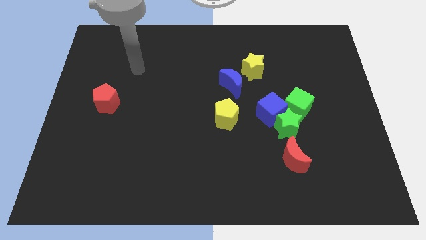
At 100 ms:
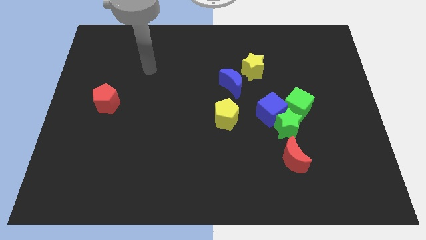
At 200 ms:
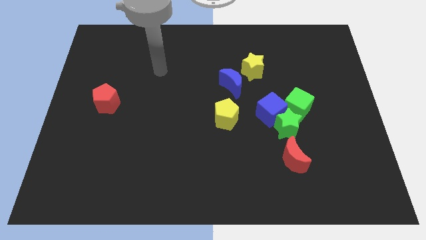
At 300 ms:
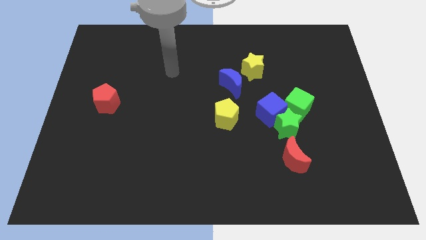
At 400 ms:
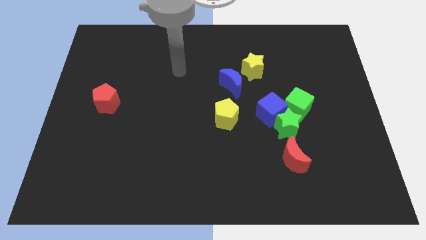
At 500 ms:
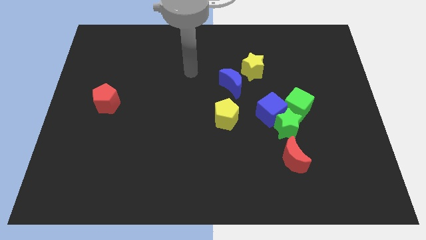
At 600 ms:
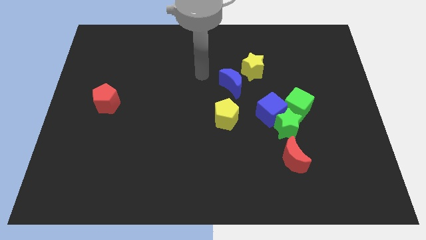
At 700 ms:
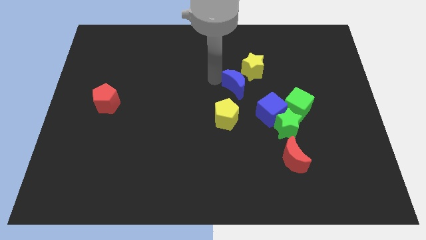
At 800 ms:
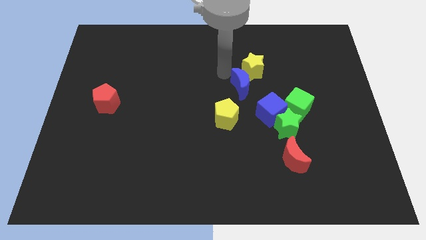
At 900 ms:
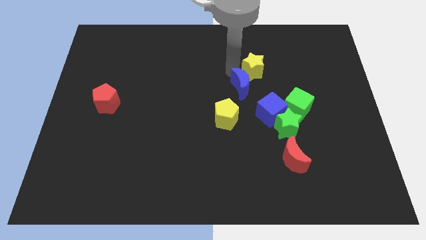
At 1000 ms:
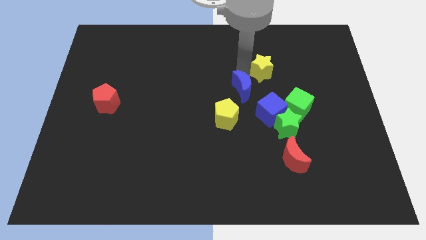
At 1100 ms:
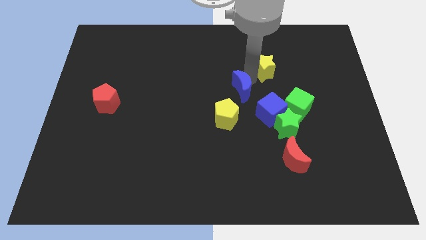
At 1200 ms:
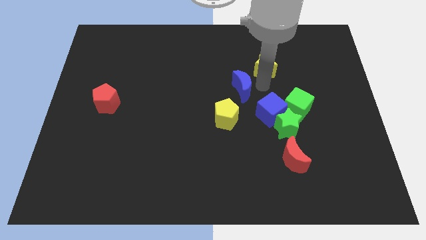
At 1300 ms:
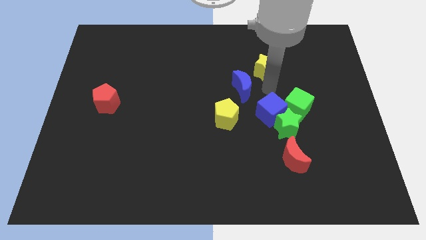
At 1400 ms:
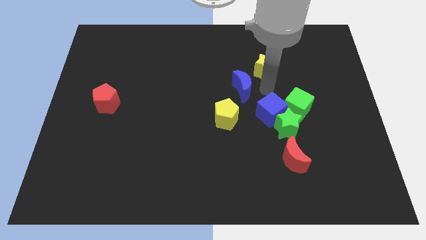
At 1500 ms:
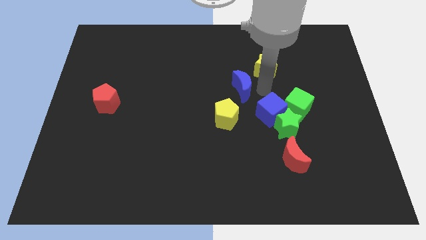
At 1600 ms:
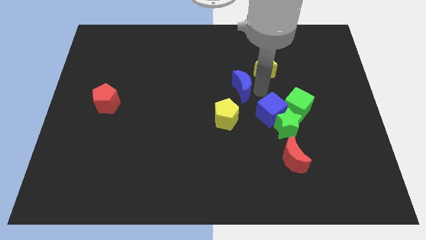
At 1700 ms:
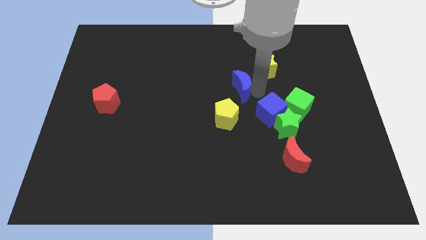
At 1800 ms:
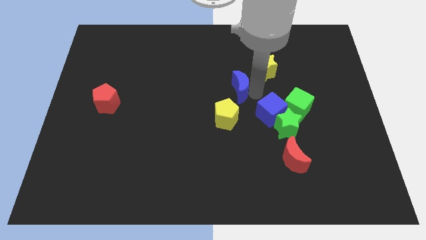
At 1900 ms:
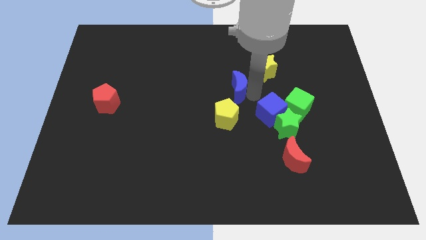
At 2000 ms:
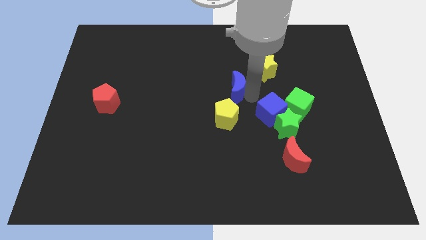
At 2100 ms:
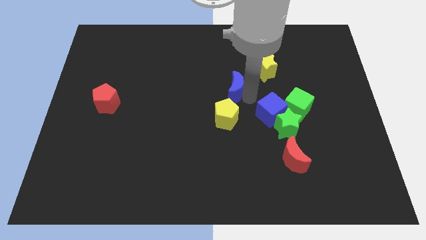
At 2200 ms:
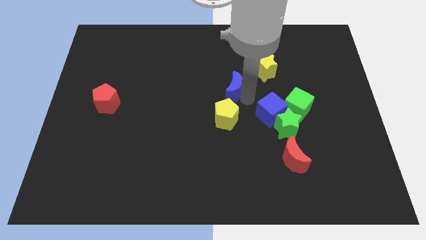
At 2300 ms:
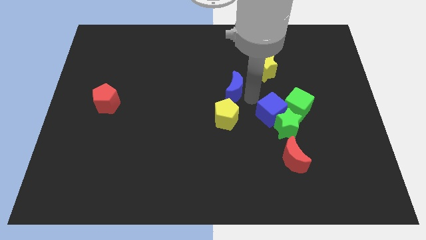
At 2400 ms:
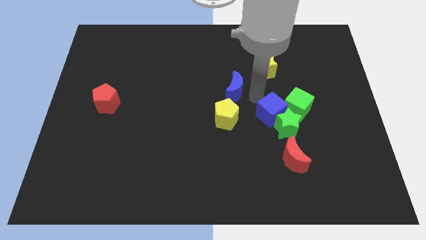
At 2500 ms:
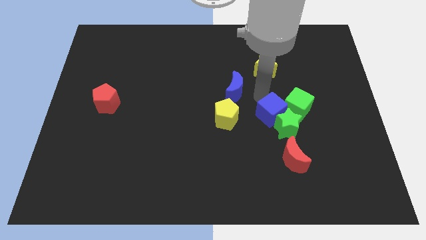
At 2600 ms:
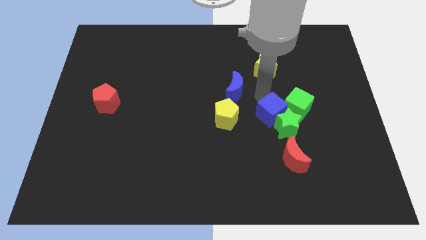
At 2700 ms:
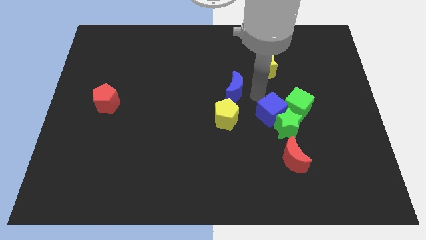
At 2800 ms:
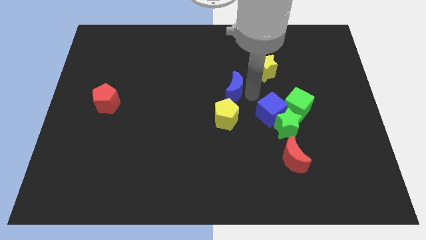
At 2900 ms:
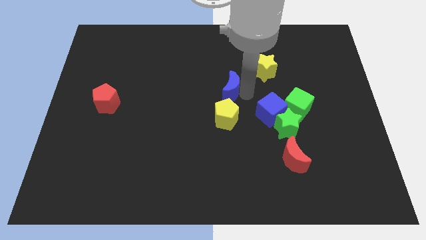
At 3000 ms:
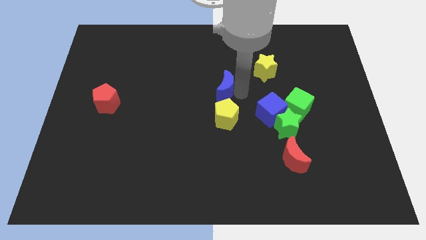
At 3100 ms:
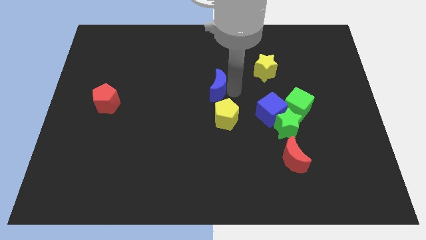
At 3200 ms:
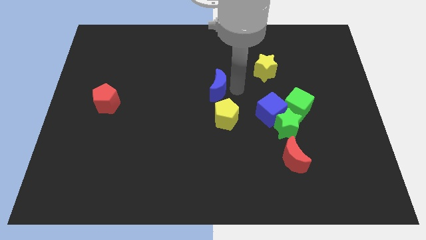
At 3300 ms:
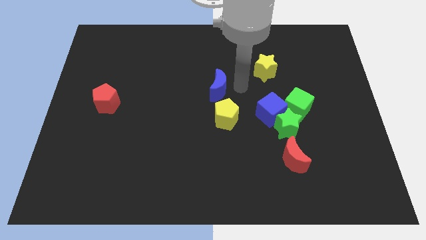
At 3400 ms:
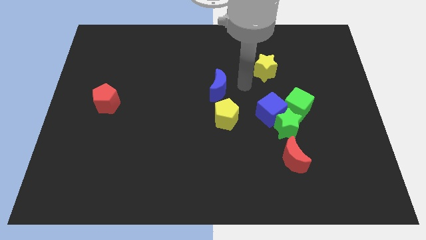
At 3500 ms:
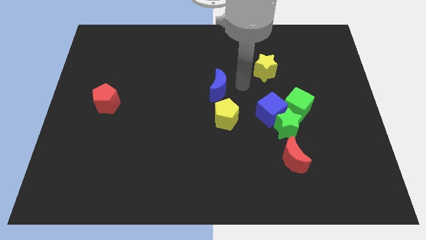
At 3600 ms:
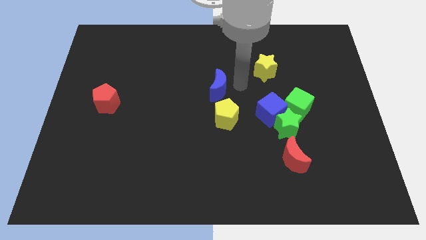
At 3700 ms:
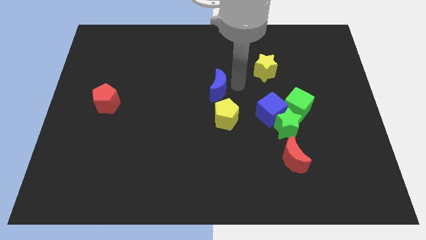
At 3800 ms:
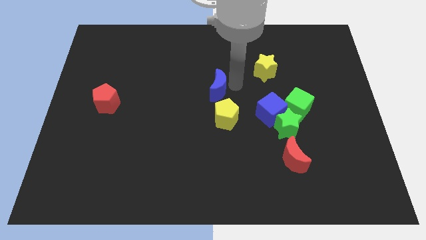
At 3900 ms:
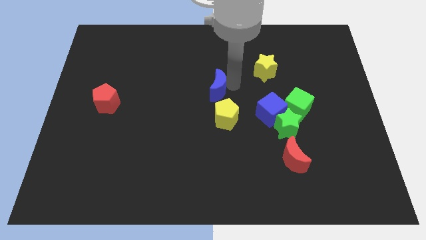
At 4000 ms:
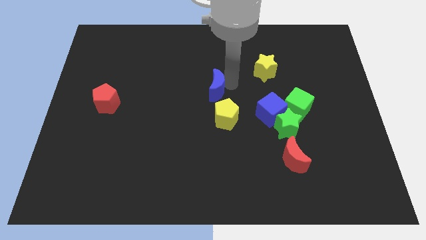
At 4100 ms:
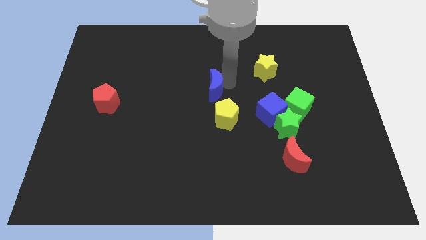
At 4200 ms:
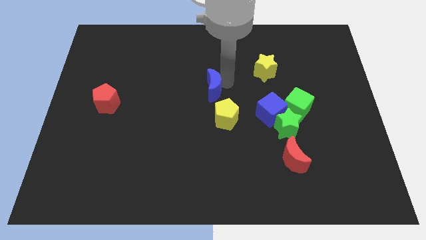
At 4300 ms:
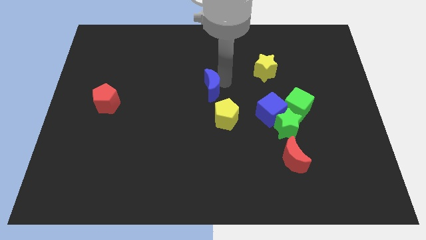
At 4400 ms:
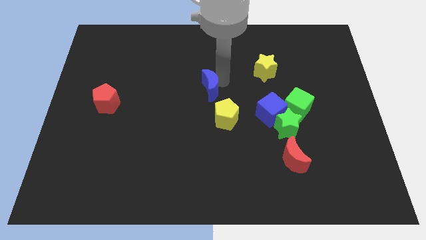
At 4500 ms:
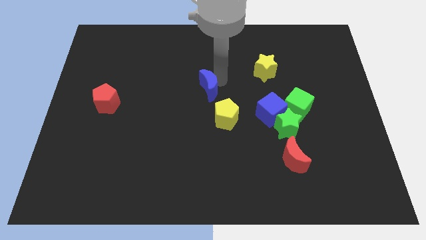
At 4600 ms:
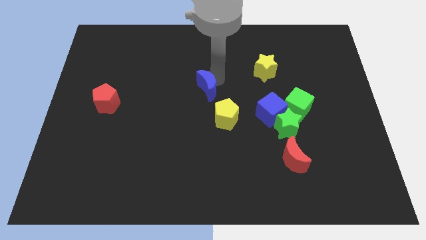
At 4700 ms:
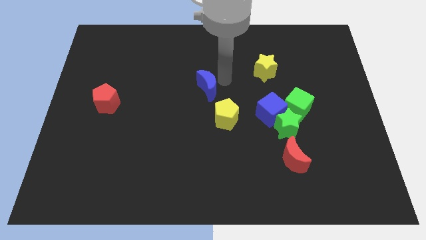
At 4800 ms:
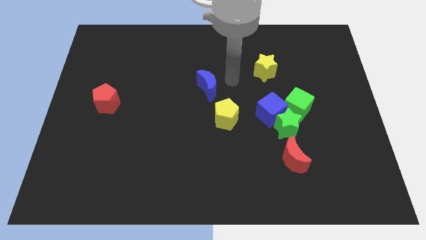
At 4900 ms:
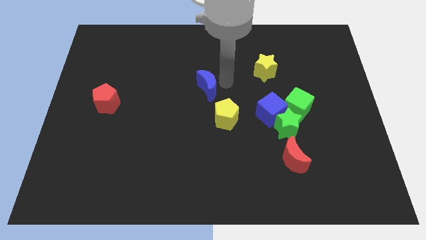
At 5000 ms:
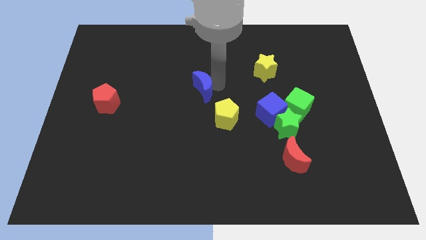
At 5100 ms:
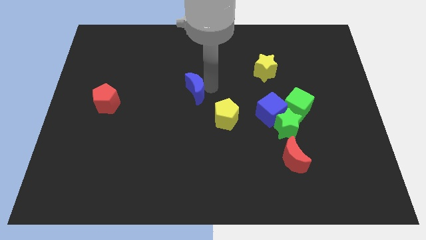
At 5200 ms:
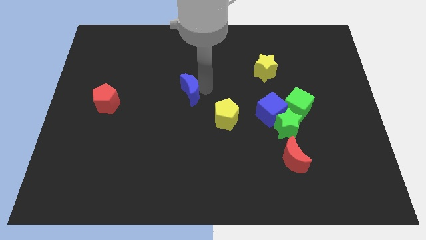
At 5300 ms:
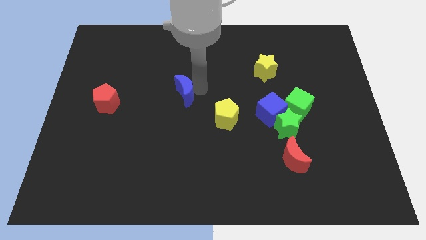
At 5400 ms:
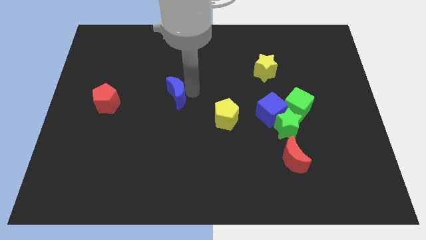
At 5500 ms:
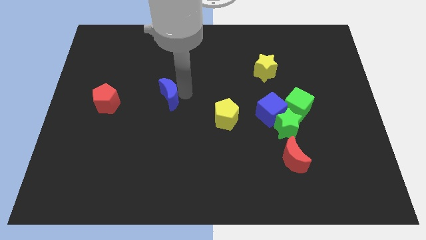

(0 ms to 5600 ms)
slide the blue moon right of the red pentagon

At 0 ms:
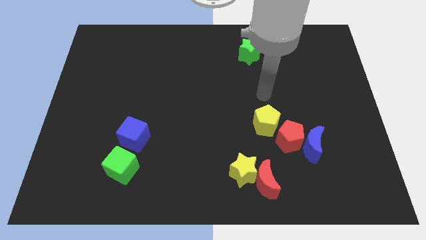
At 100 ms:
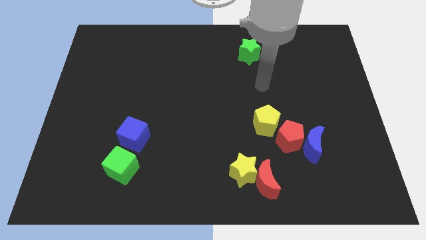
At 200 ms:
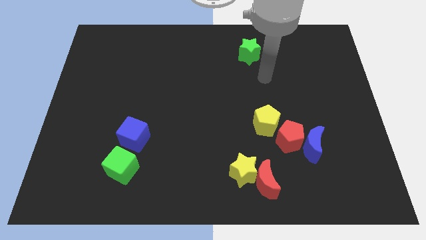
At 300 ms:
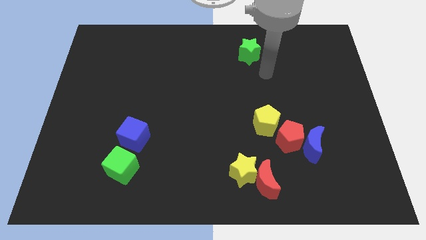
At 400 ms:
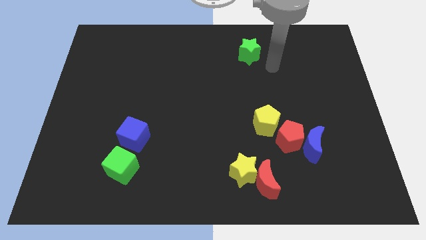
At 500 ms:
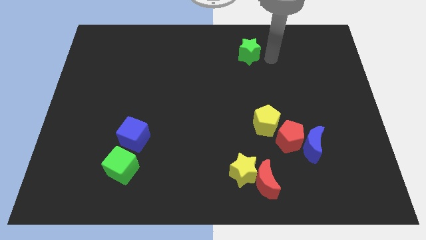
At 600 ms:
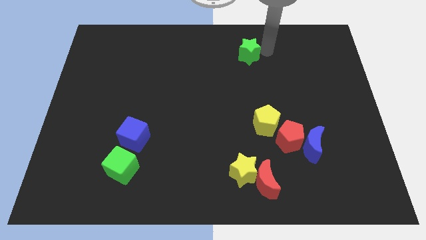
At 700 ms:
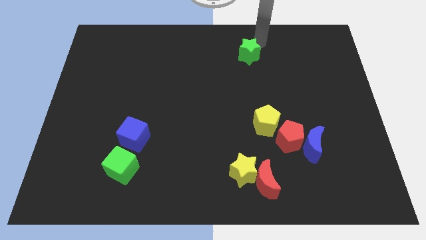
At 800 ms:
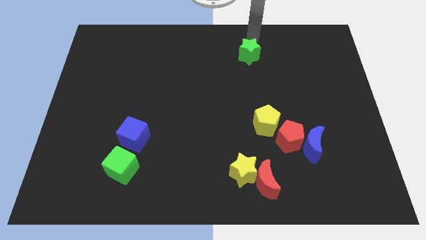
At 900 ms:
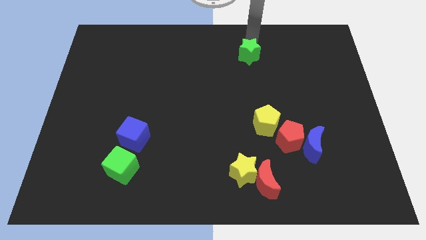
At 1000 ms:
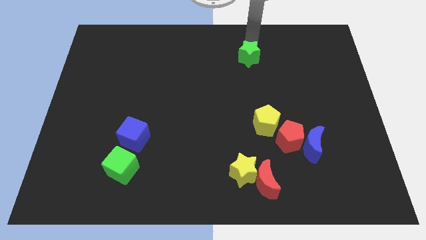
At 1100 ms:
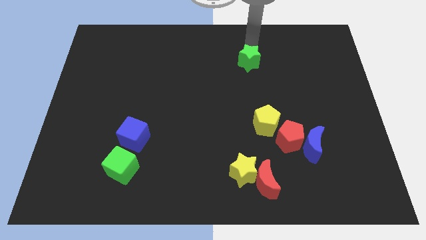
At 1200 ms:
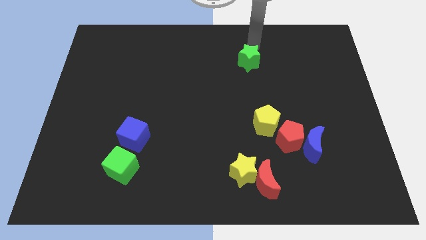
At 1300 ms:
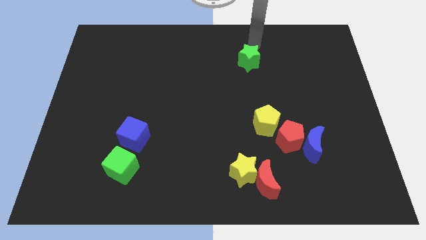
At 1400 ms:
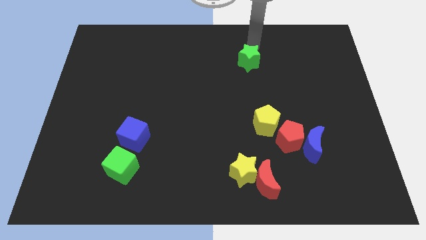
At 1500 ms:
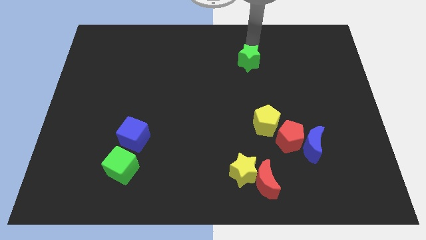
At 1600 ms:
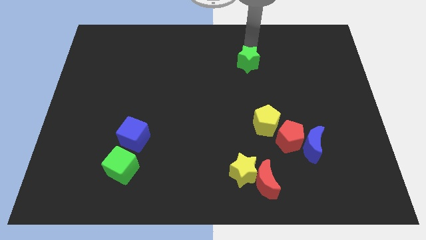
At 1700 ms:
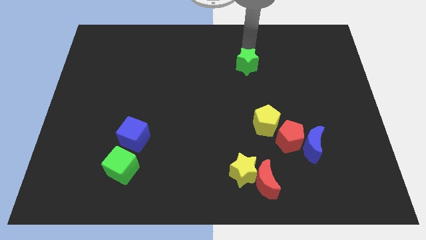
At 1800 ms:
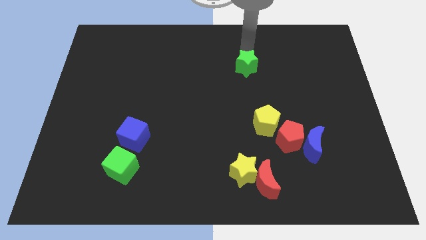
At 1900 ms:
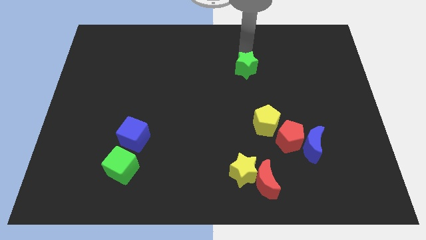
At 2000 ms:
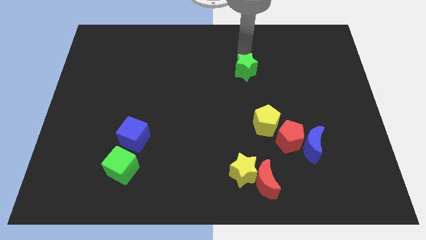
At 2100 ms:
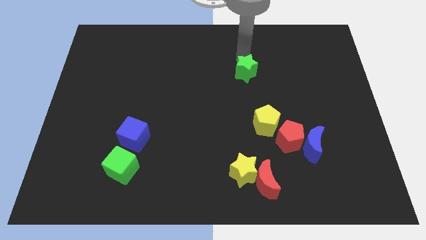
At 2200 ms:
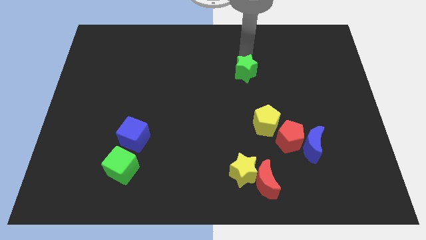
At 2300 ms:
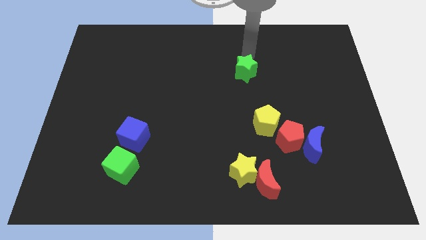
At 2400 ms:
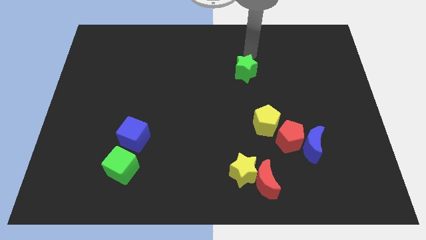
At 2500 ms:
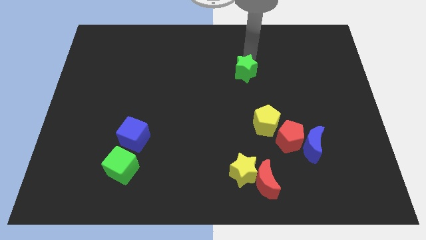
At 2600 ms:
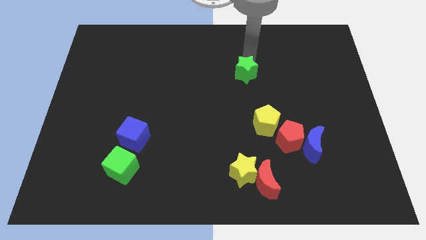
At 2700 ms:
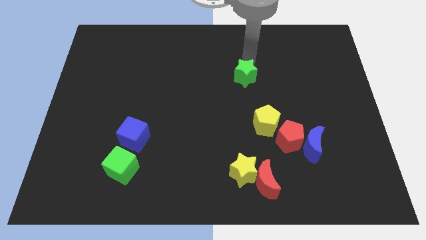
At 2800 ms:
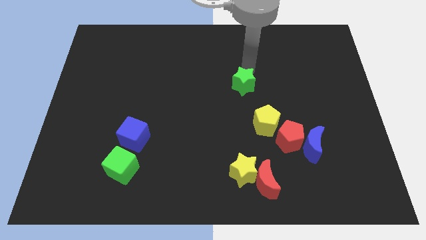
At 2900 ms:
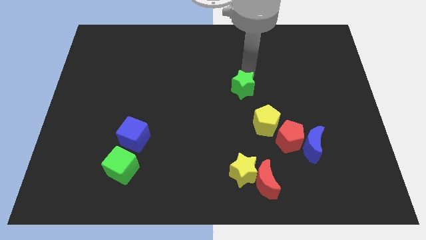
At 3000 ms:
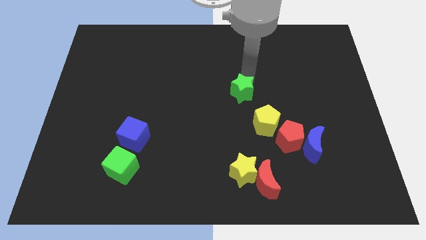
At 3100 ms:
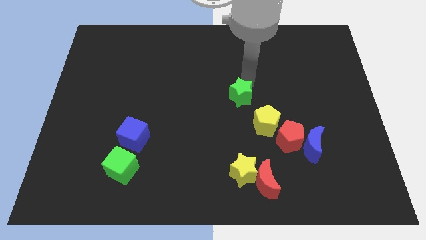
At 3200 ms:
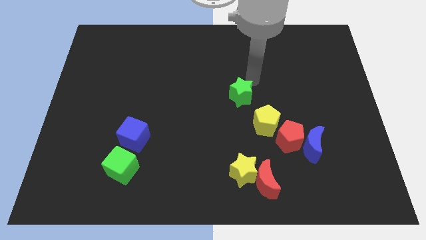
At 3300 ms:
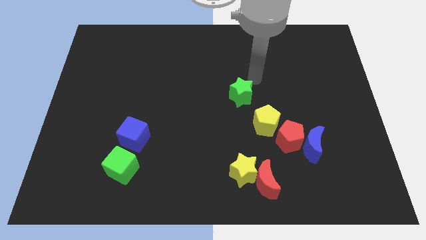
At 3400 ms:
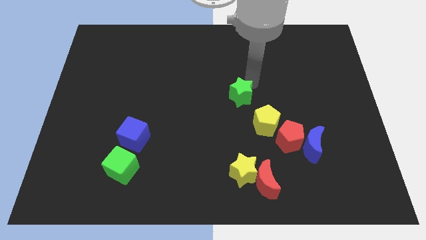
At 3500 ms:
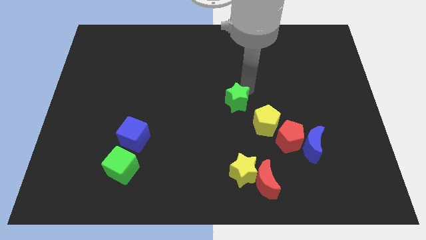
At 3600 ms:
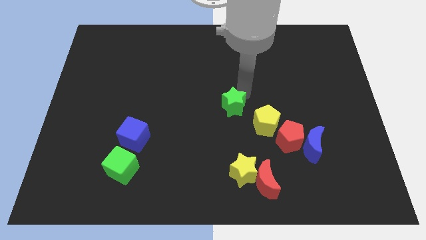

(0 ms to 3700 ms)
slide the green star left of the yellow pentagon
